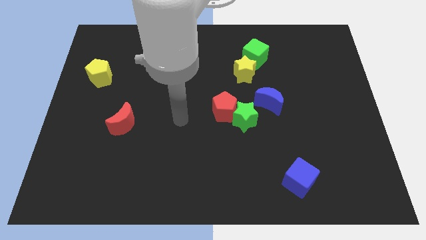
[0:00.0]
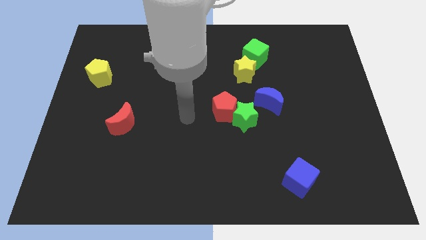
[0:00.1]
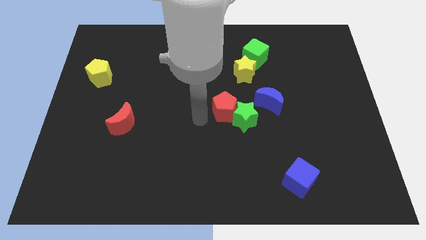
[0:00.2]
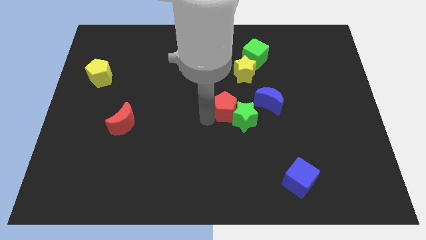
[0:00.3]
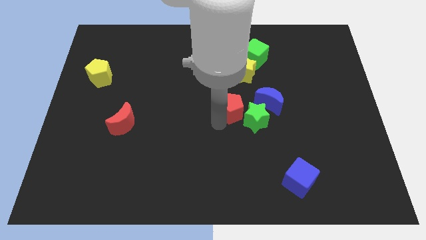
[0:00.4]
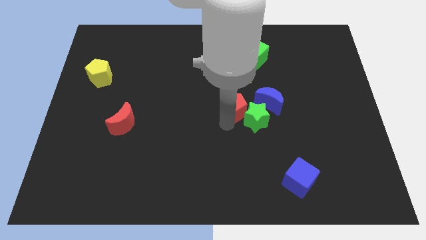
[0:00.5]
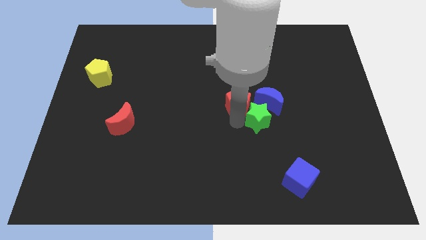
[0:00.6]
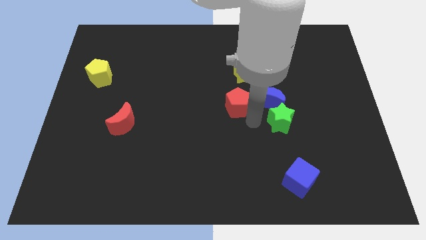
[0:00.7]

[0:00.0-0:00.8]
pull the red pentagon apart from the green star

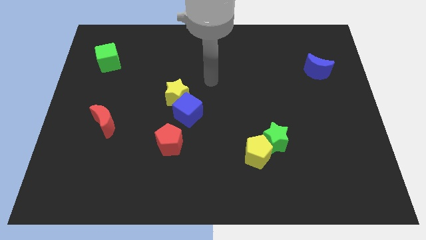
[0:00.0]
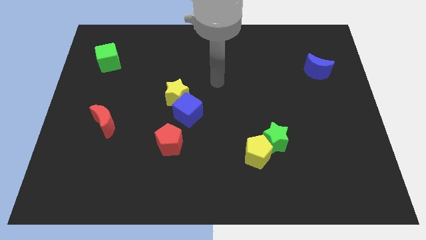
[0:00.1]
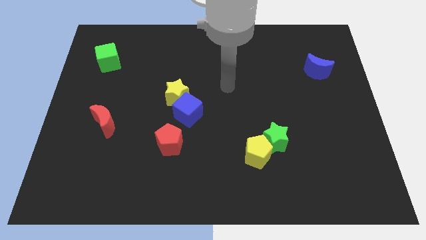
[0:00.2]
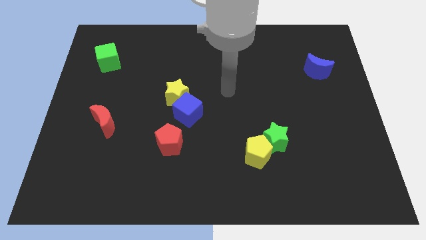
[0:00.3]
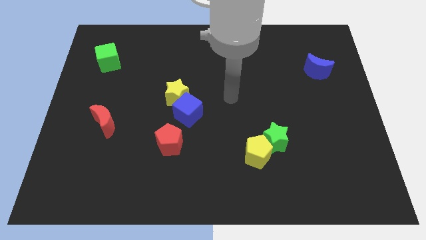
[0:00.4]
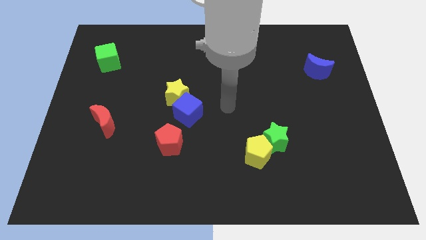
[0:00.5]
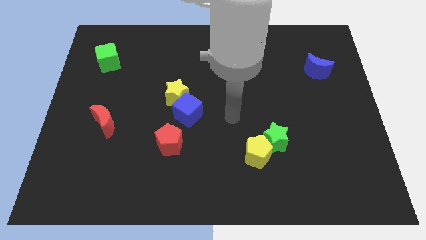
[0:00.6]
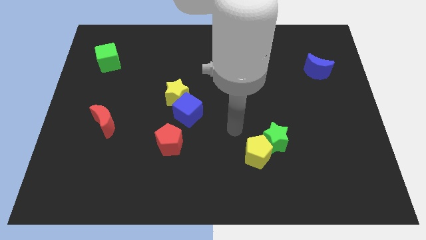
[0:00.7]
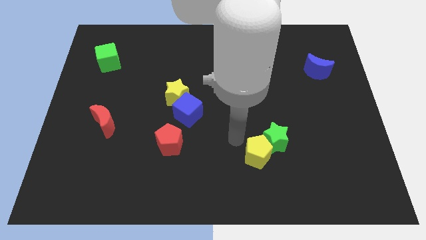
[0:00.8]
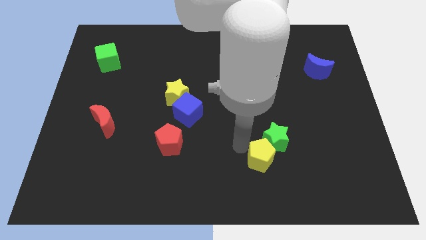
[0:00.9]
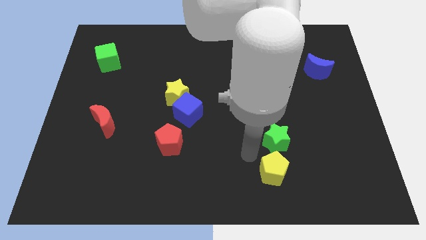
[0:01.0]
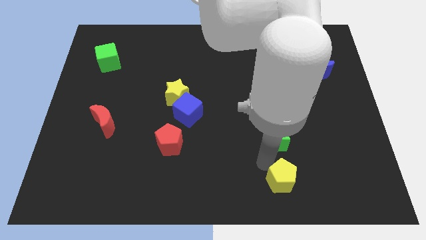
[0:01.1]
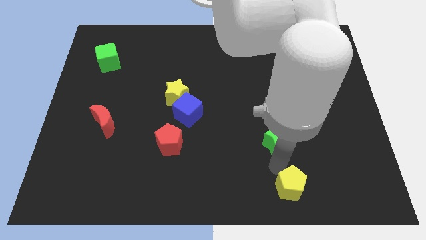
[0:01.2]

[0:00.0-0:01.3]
separate the green star from the yellow pentagon

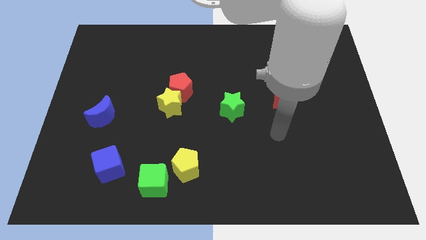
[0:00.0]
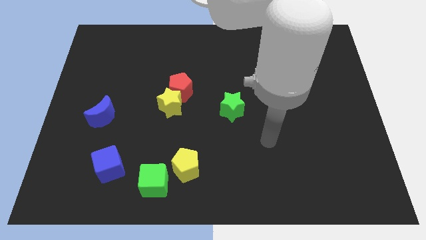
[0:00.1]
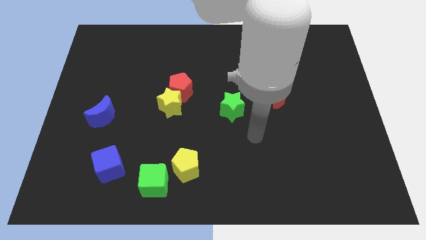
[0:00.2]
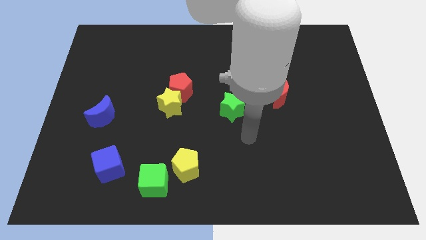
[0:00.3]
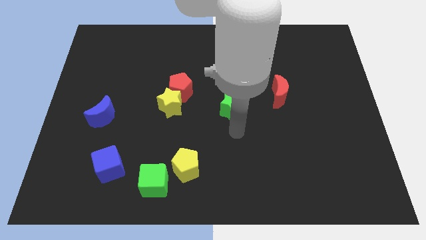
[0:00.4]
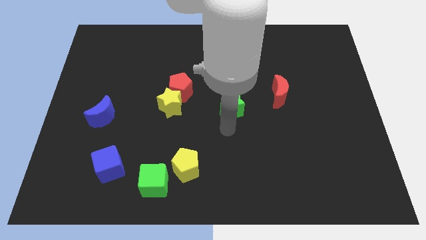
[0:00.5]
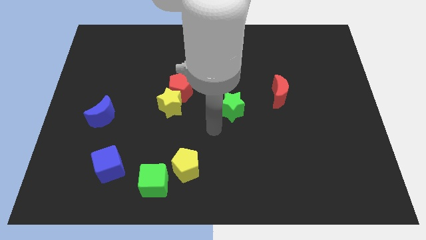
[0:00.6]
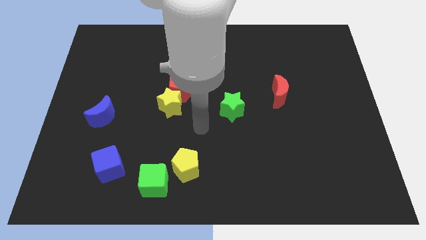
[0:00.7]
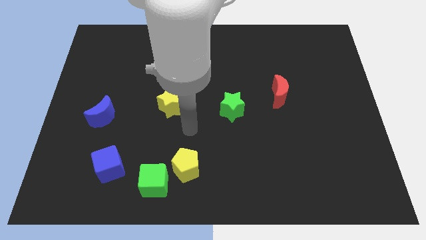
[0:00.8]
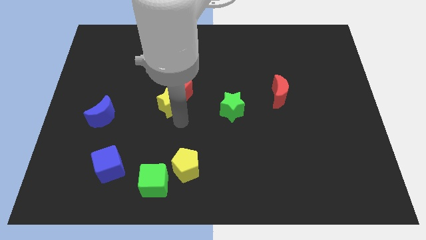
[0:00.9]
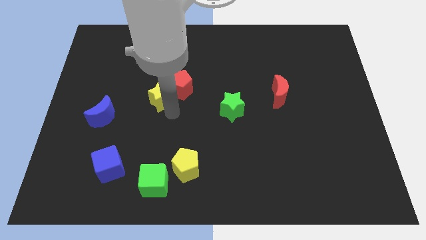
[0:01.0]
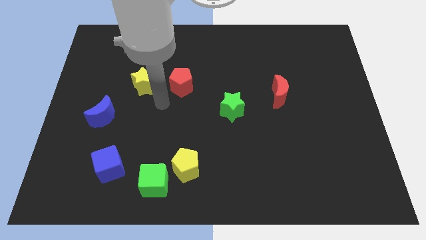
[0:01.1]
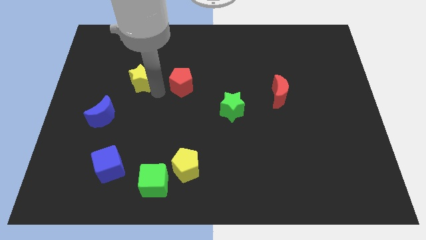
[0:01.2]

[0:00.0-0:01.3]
pull the red pentagon apart from the yellow star

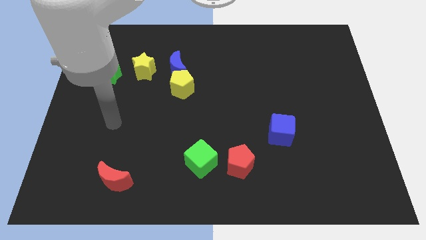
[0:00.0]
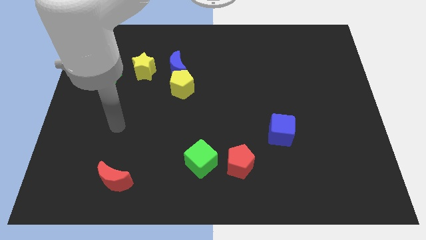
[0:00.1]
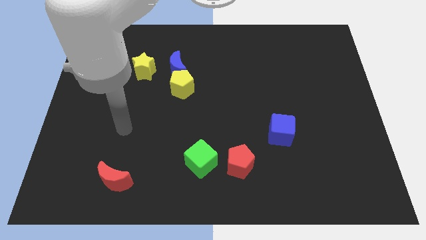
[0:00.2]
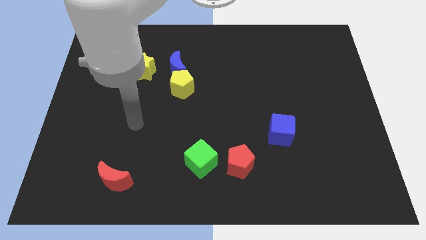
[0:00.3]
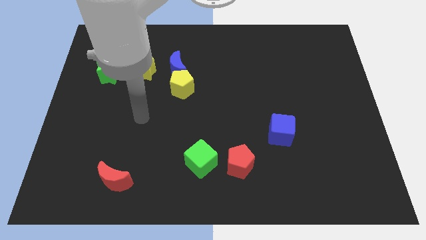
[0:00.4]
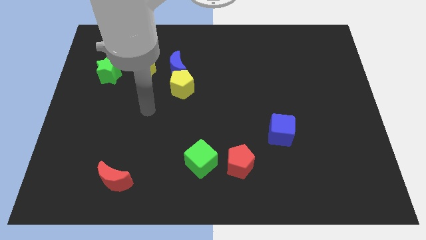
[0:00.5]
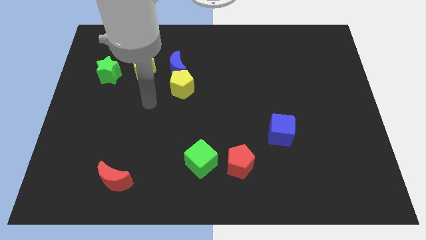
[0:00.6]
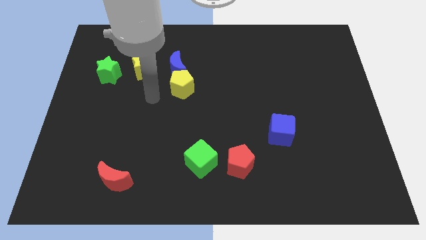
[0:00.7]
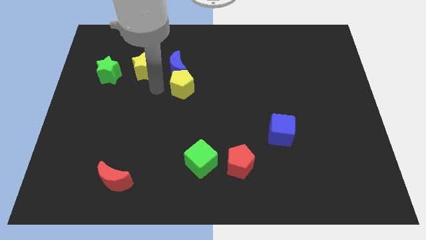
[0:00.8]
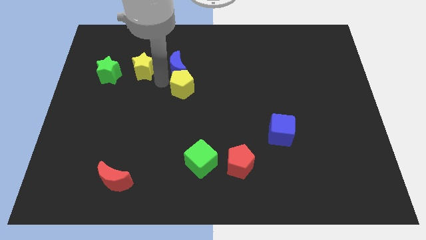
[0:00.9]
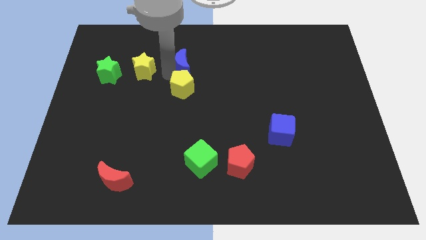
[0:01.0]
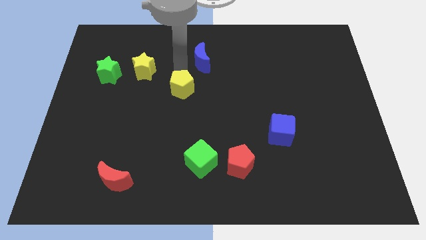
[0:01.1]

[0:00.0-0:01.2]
pull the yellow pentagon apart from the blue moon

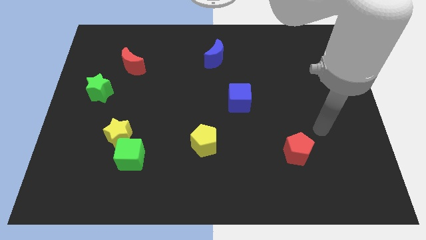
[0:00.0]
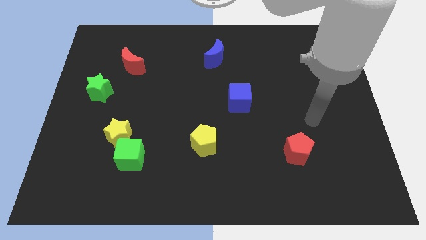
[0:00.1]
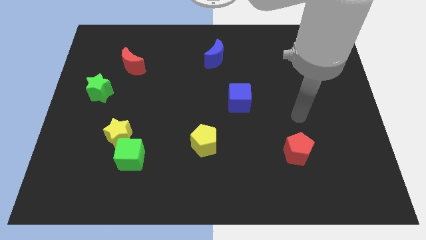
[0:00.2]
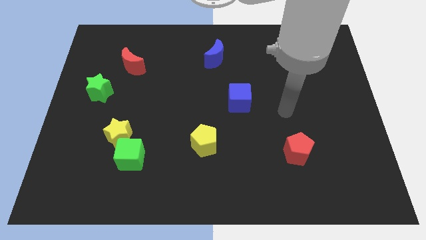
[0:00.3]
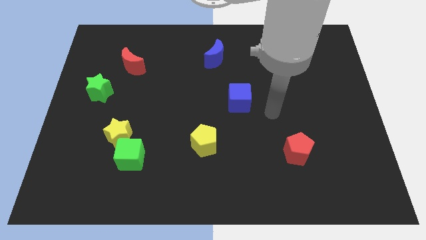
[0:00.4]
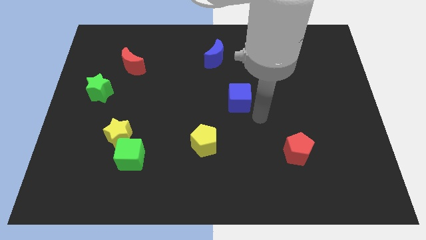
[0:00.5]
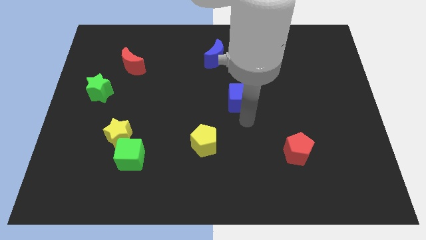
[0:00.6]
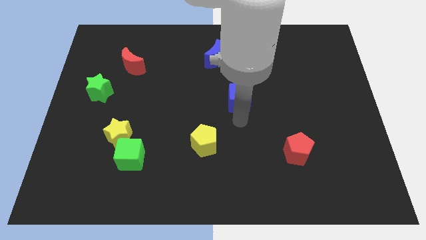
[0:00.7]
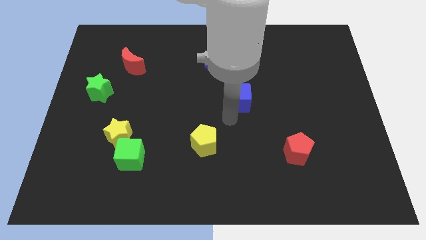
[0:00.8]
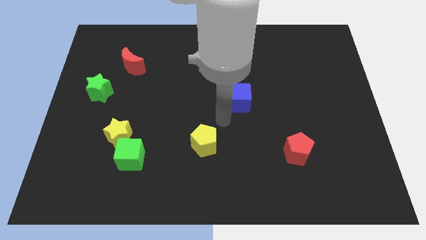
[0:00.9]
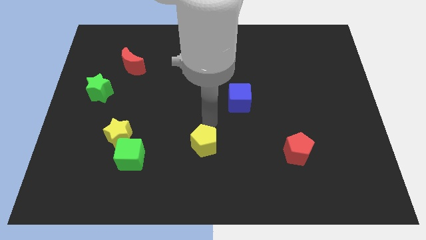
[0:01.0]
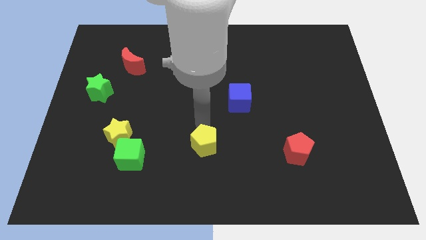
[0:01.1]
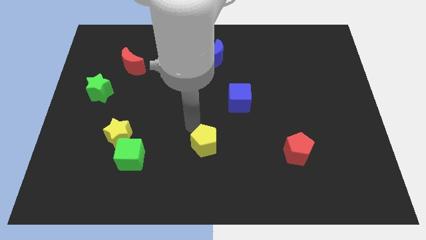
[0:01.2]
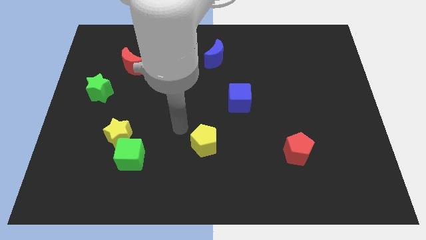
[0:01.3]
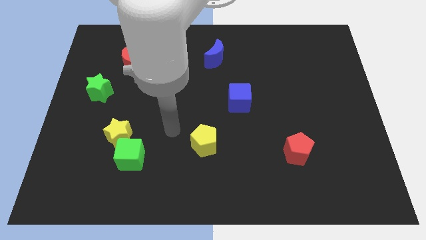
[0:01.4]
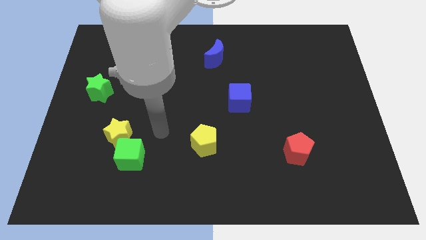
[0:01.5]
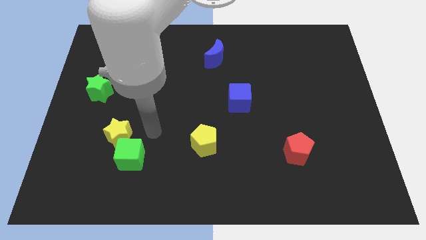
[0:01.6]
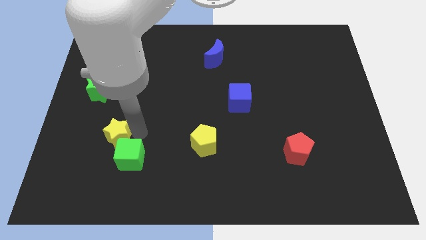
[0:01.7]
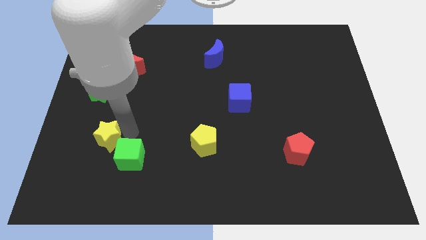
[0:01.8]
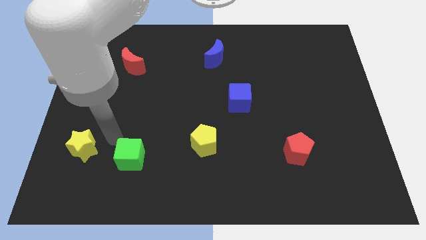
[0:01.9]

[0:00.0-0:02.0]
move the green cube away from the yellow star

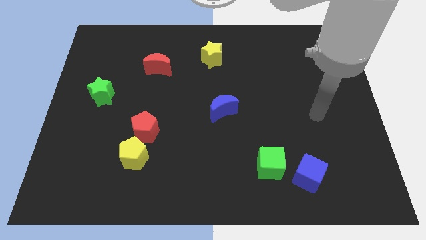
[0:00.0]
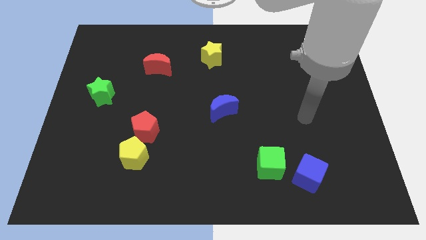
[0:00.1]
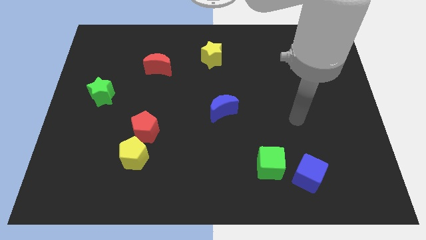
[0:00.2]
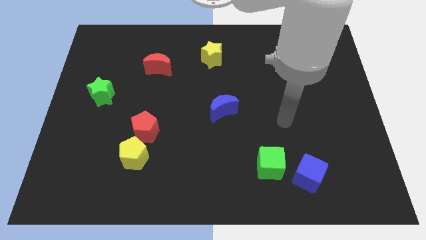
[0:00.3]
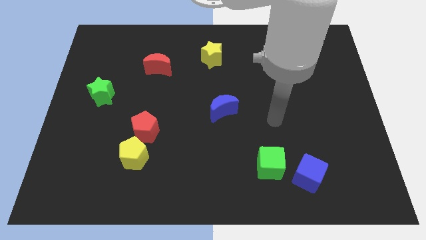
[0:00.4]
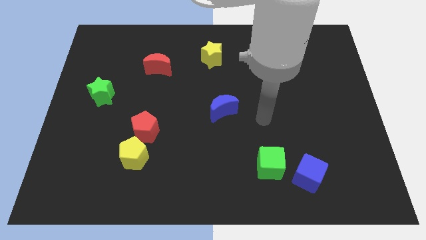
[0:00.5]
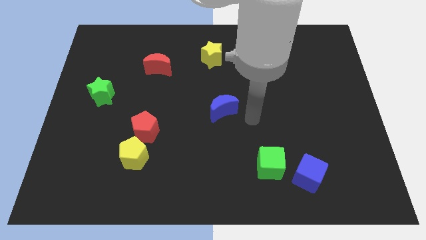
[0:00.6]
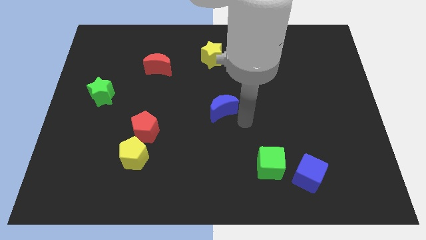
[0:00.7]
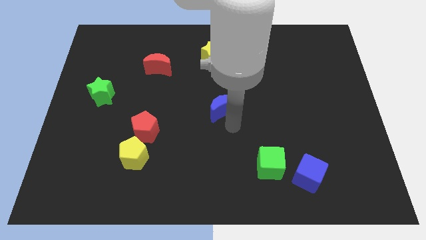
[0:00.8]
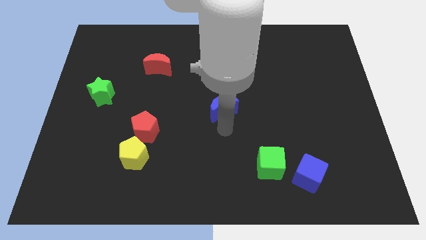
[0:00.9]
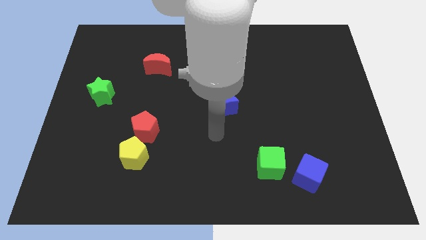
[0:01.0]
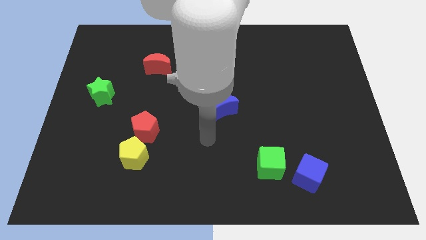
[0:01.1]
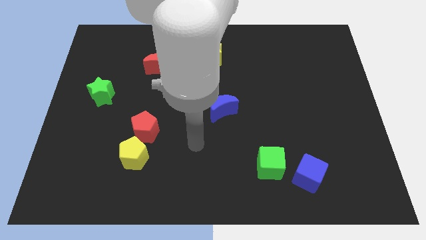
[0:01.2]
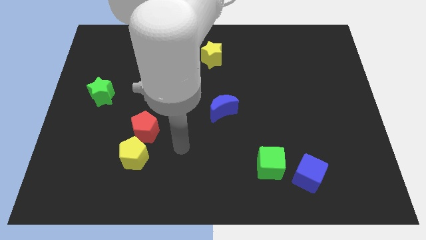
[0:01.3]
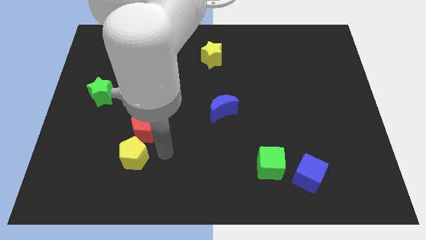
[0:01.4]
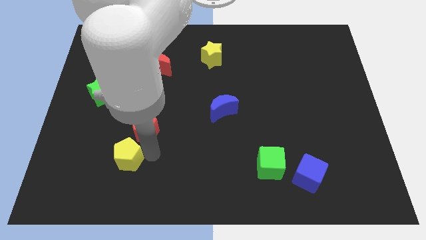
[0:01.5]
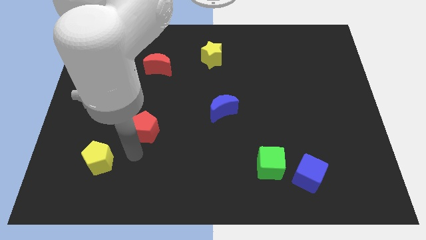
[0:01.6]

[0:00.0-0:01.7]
move the red pentagon away from the yellow pentagon

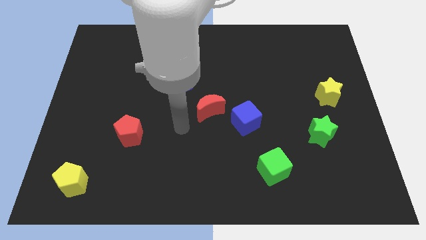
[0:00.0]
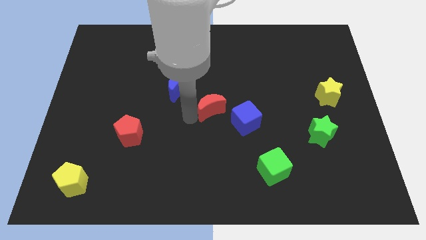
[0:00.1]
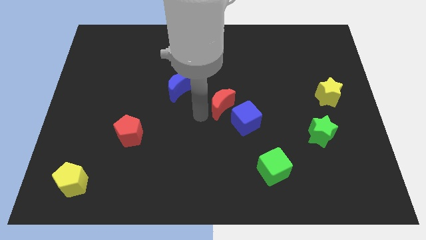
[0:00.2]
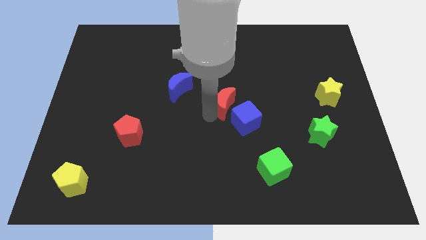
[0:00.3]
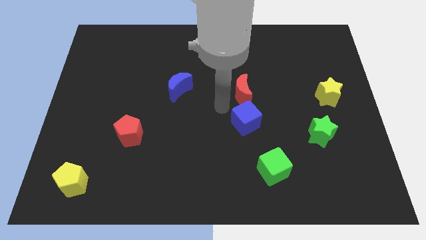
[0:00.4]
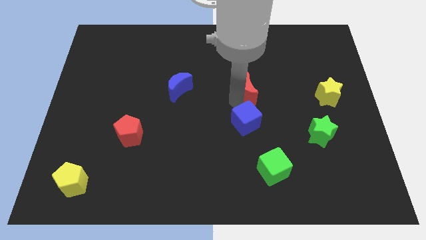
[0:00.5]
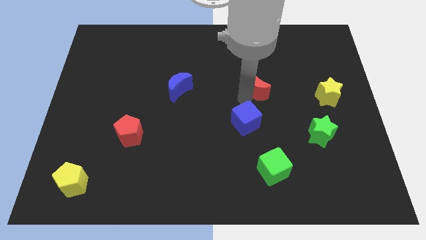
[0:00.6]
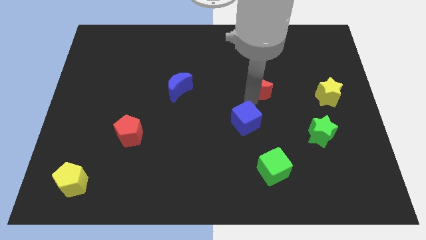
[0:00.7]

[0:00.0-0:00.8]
separate the blue cube from the red moon

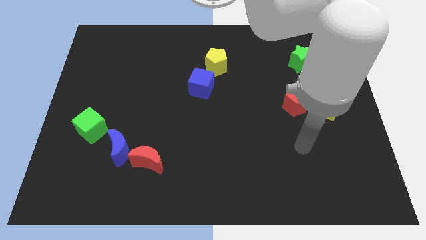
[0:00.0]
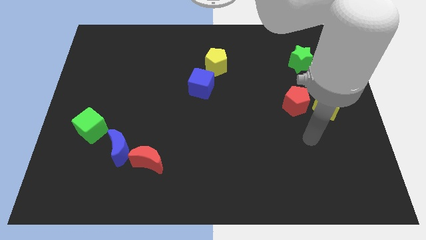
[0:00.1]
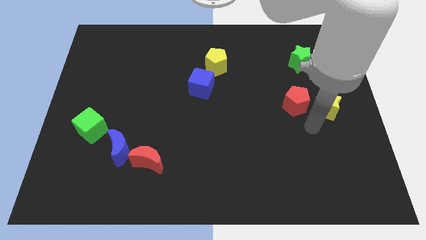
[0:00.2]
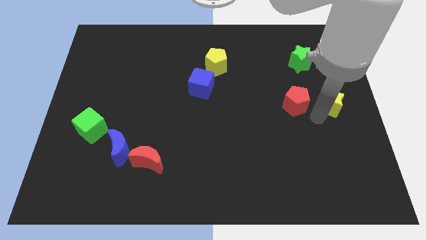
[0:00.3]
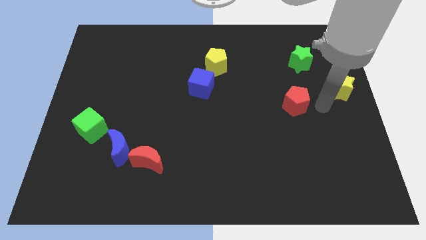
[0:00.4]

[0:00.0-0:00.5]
separate the red pentagon from the yellow star
